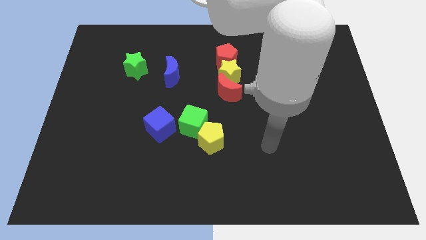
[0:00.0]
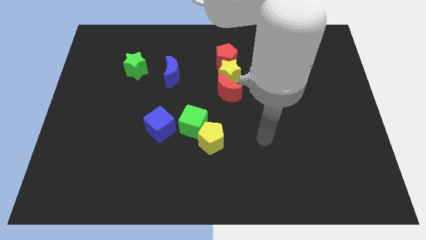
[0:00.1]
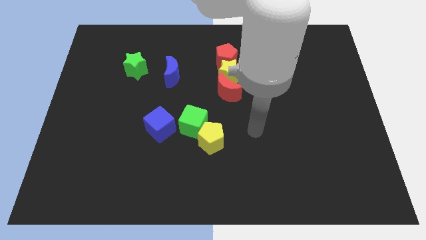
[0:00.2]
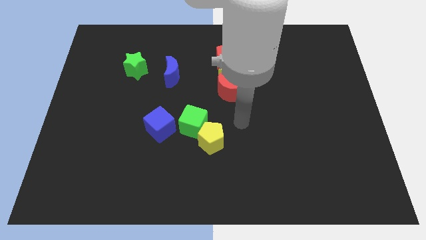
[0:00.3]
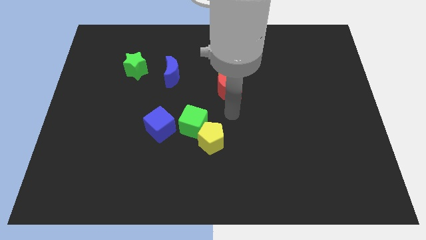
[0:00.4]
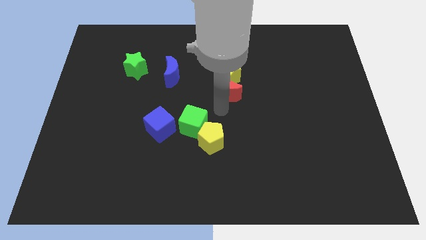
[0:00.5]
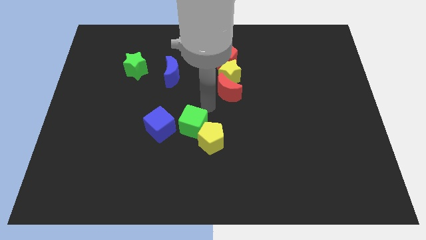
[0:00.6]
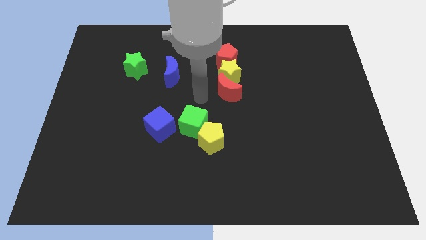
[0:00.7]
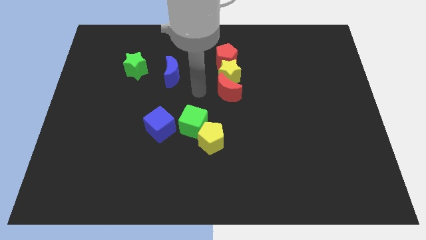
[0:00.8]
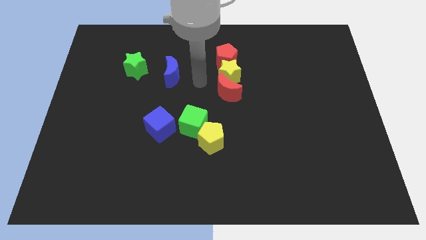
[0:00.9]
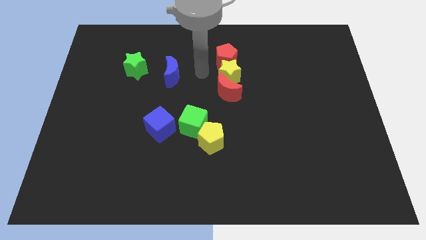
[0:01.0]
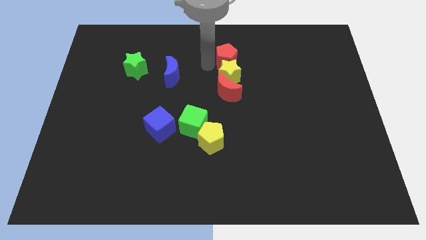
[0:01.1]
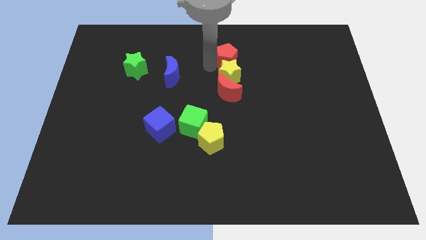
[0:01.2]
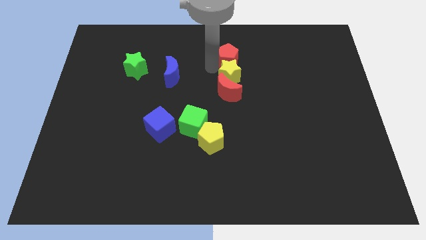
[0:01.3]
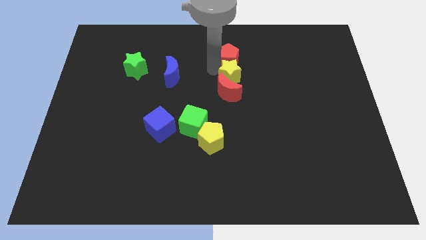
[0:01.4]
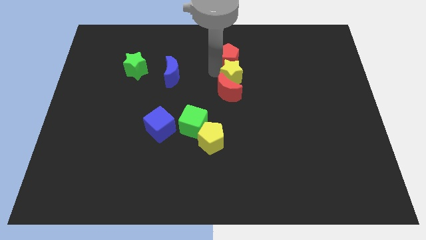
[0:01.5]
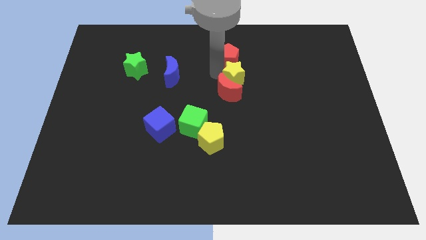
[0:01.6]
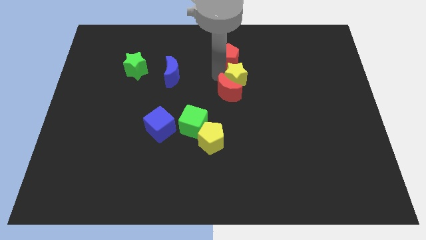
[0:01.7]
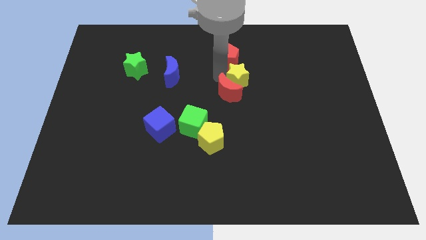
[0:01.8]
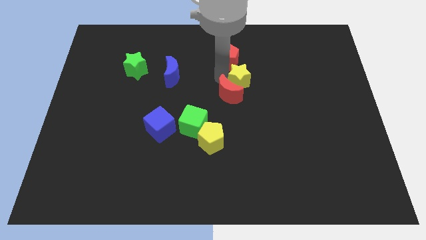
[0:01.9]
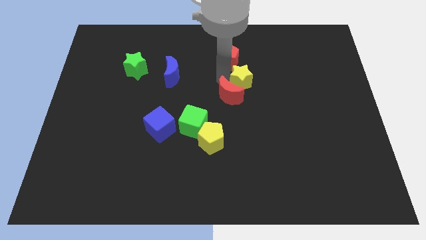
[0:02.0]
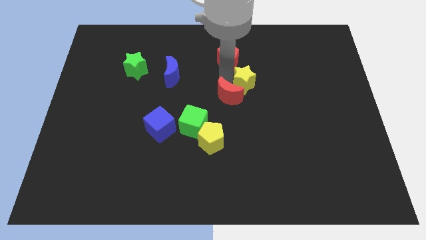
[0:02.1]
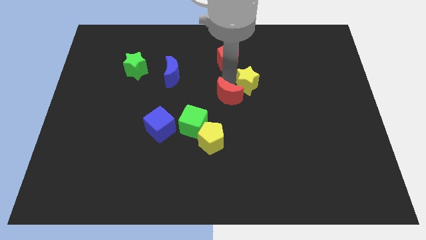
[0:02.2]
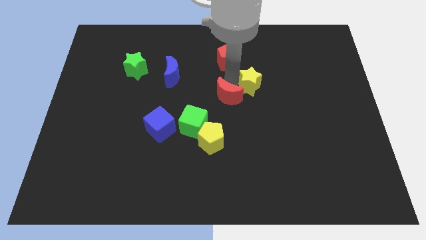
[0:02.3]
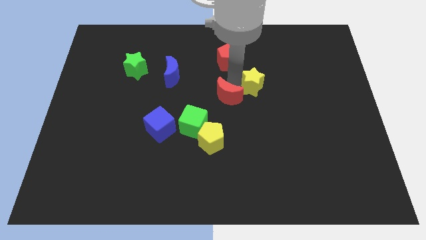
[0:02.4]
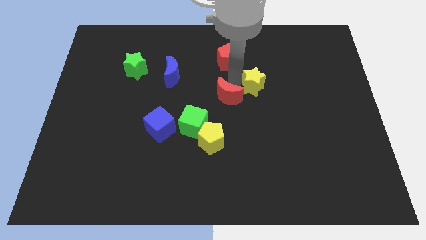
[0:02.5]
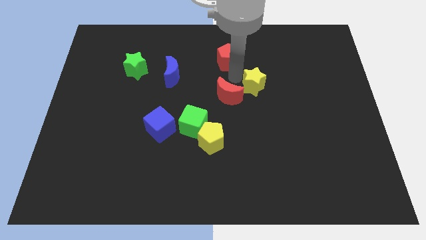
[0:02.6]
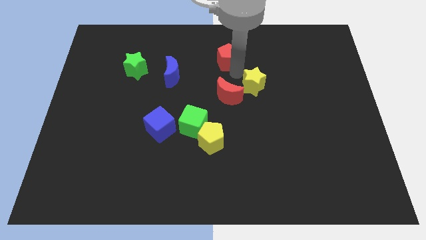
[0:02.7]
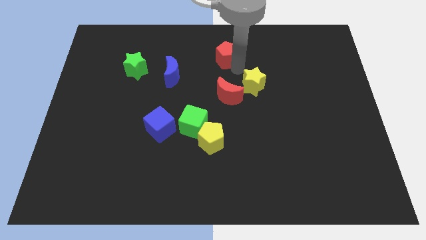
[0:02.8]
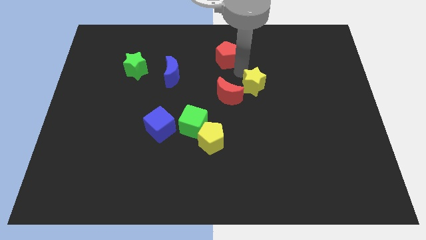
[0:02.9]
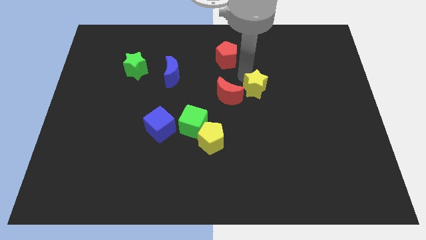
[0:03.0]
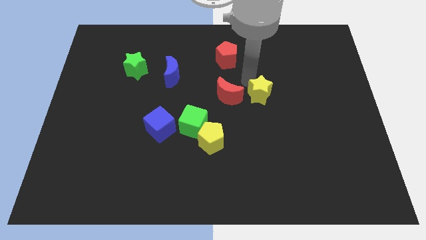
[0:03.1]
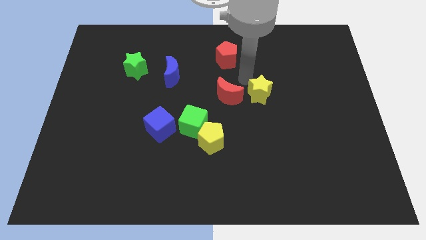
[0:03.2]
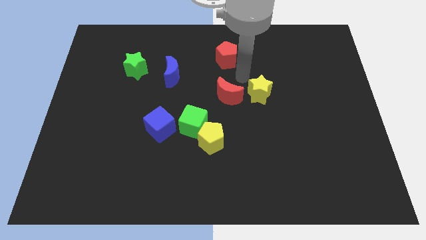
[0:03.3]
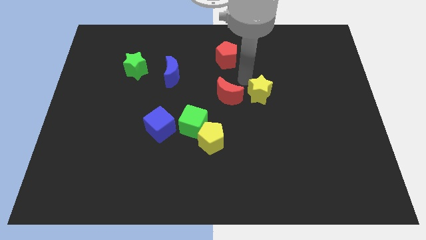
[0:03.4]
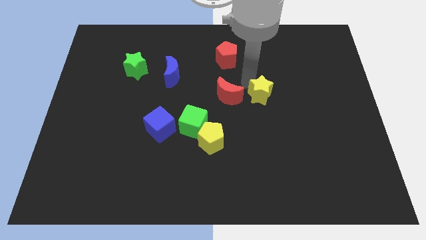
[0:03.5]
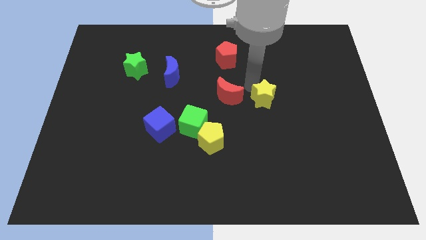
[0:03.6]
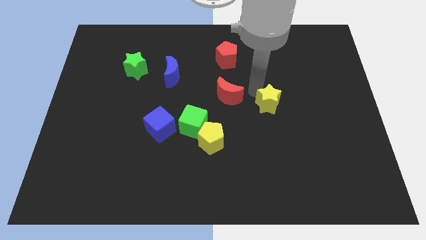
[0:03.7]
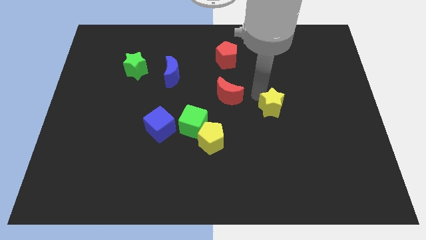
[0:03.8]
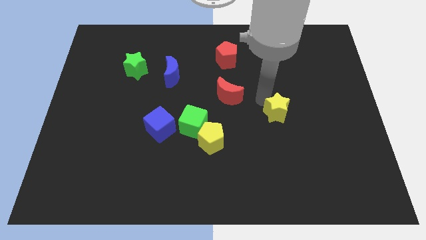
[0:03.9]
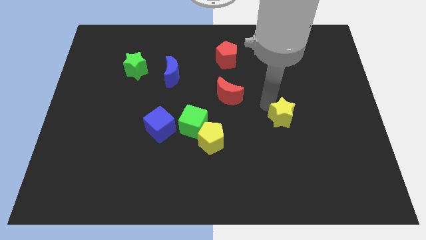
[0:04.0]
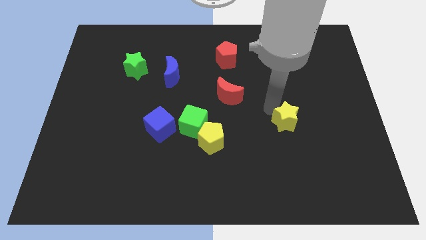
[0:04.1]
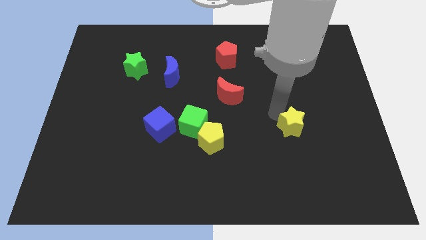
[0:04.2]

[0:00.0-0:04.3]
push the yellow star diagonally down and right

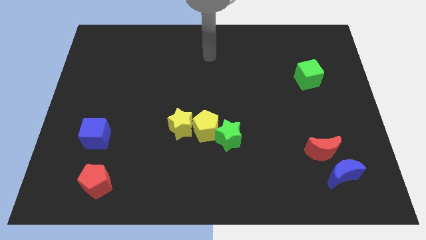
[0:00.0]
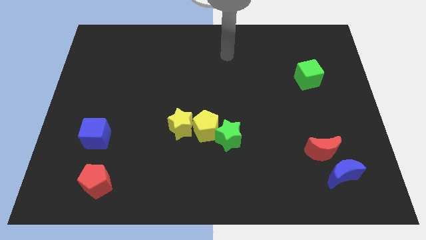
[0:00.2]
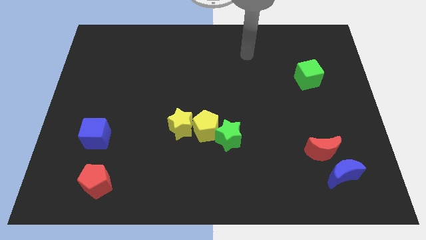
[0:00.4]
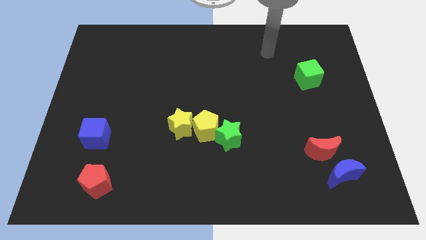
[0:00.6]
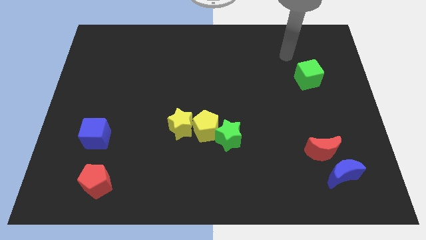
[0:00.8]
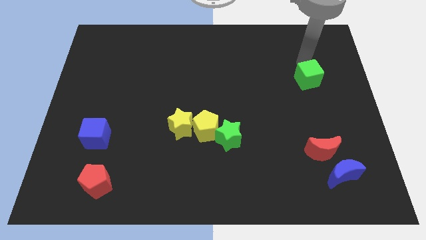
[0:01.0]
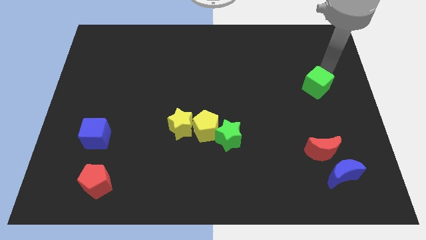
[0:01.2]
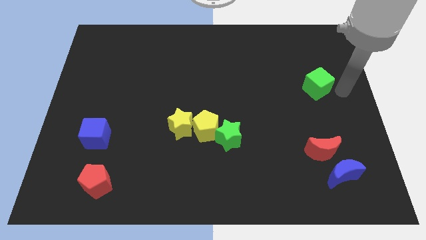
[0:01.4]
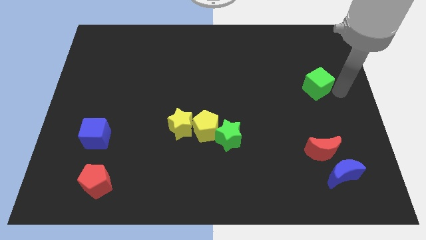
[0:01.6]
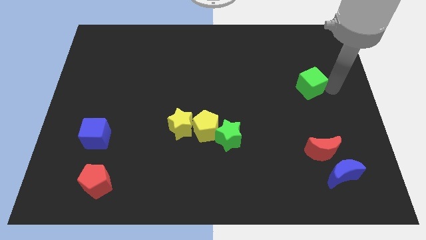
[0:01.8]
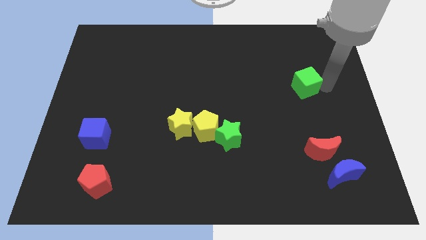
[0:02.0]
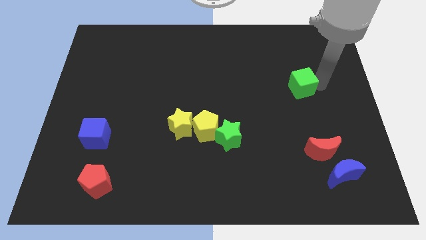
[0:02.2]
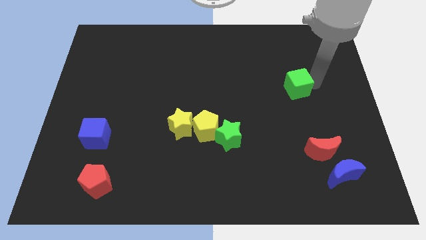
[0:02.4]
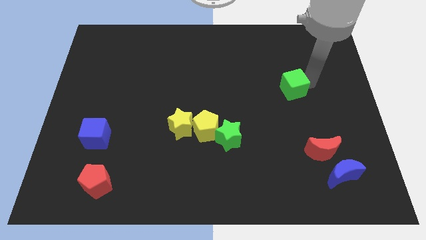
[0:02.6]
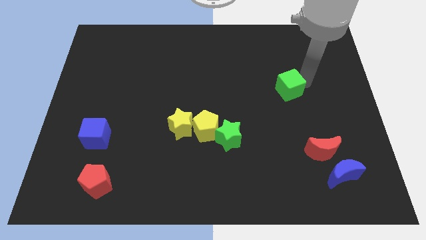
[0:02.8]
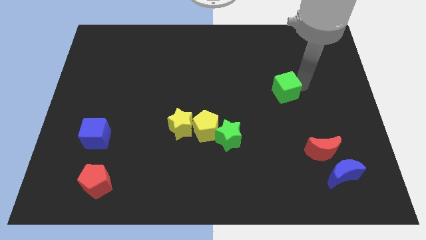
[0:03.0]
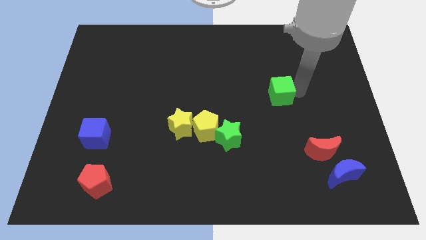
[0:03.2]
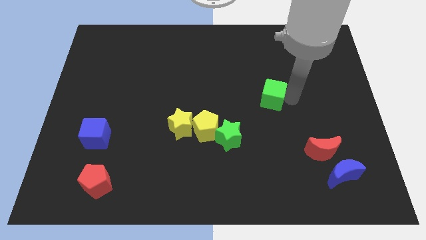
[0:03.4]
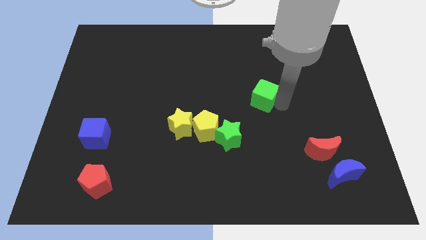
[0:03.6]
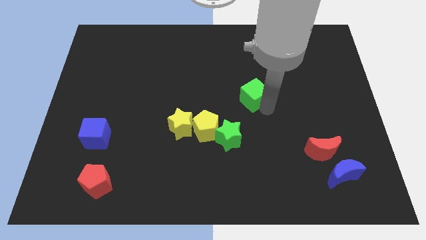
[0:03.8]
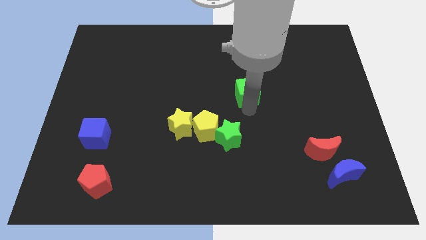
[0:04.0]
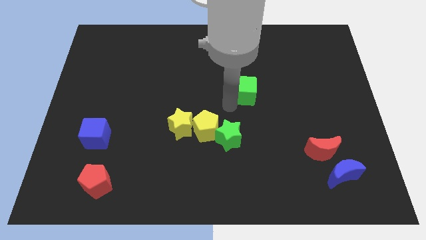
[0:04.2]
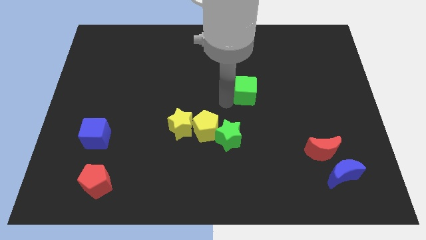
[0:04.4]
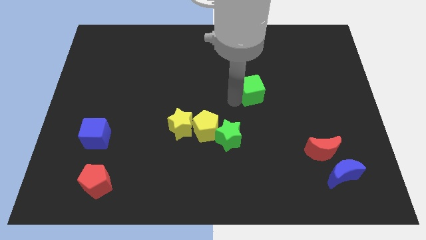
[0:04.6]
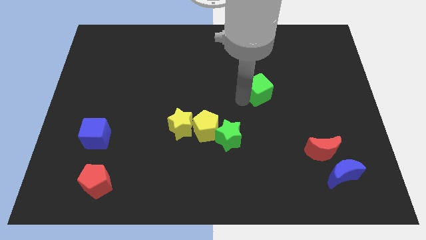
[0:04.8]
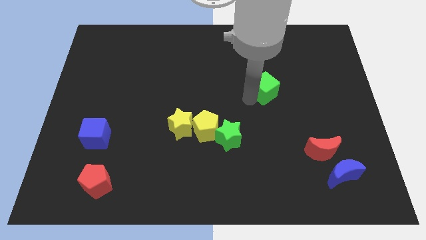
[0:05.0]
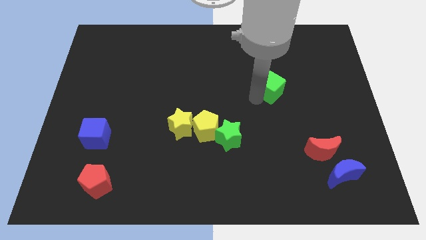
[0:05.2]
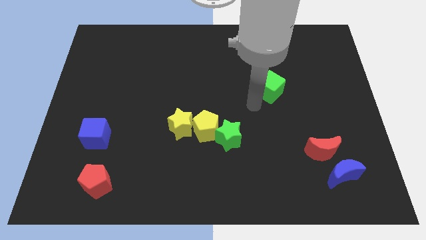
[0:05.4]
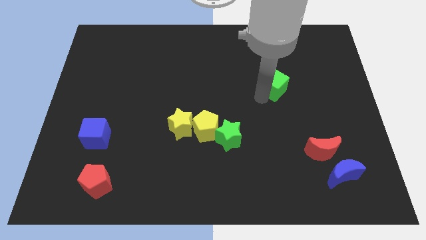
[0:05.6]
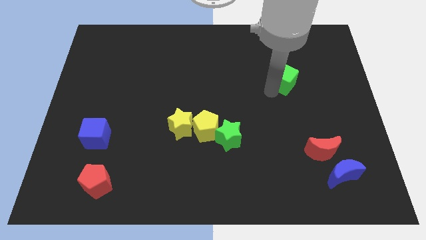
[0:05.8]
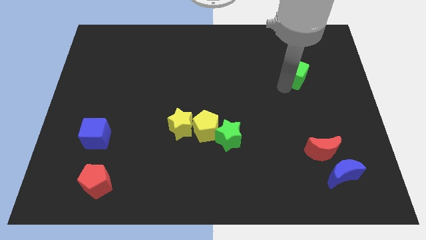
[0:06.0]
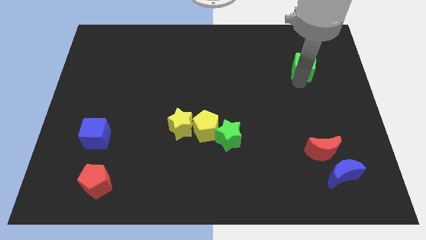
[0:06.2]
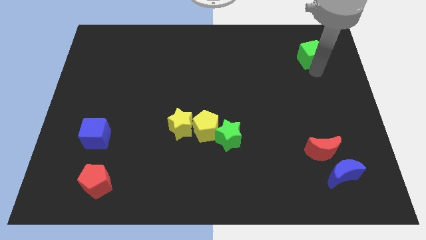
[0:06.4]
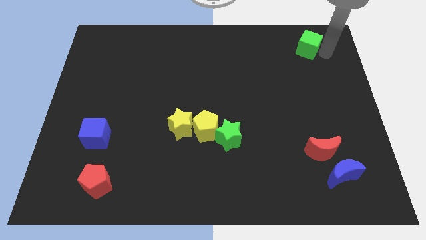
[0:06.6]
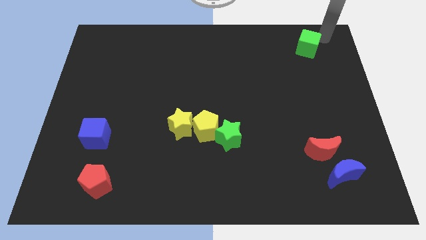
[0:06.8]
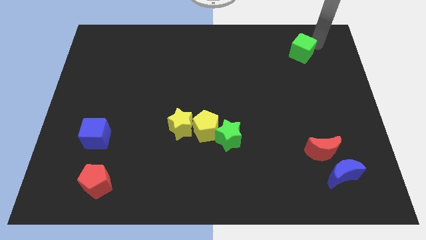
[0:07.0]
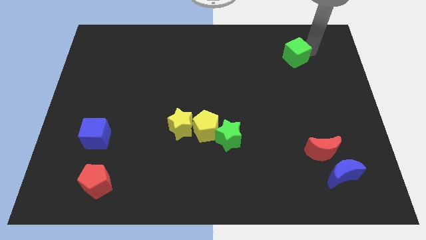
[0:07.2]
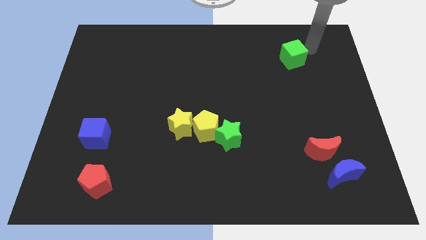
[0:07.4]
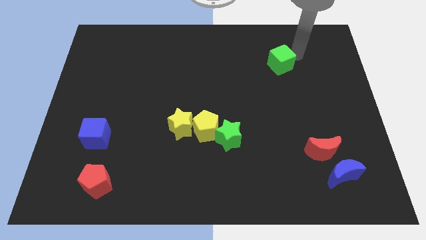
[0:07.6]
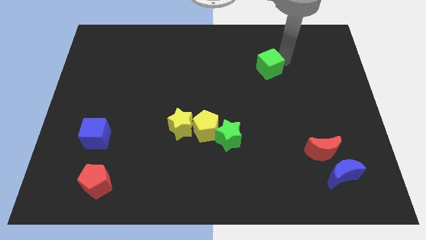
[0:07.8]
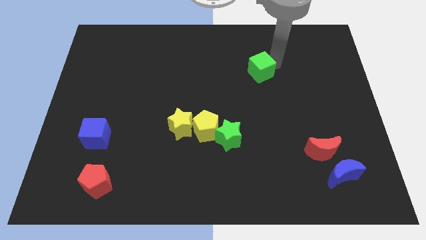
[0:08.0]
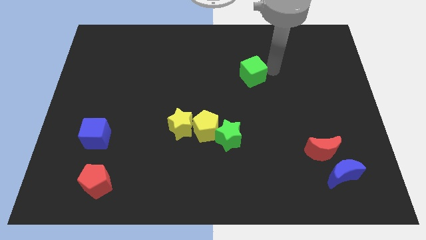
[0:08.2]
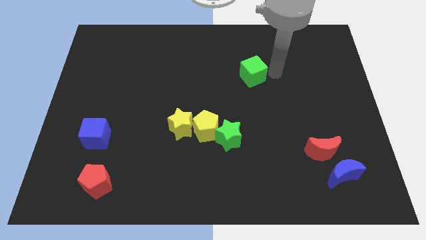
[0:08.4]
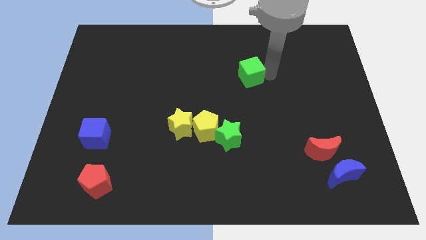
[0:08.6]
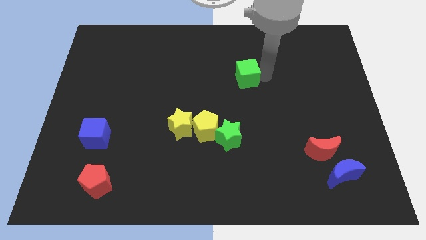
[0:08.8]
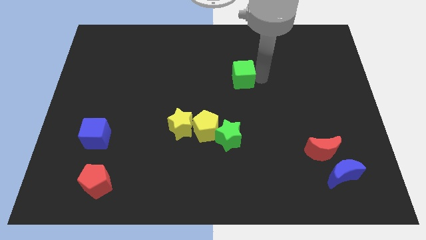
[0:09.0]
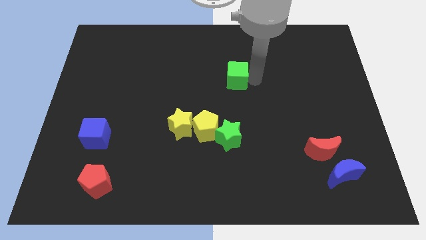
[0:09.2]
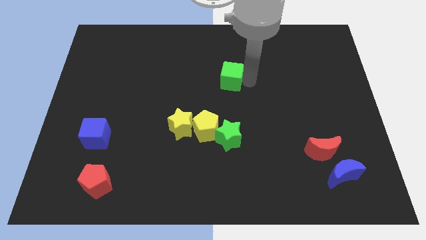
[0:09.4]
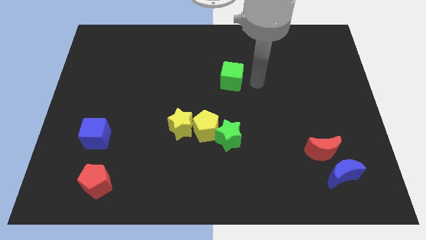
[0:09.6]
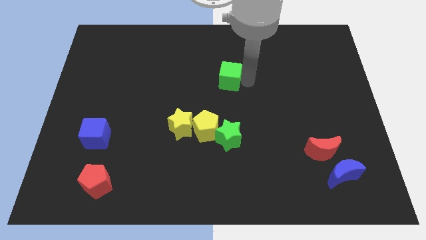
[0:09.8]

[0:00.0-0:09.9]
slide the green cube left
